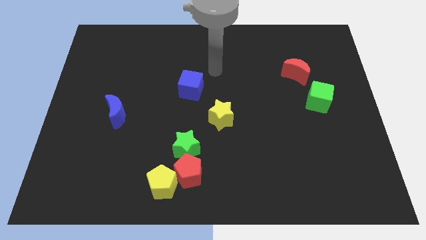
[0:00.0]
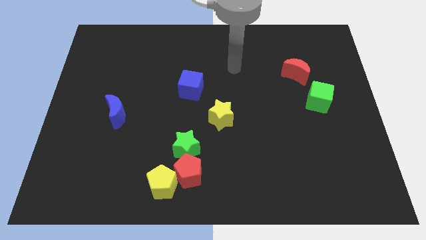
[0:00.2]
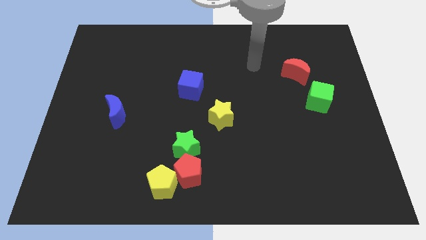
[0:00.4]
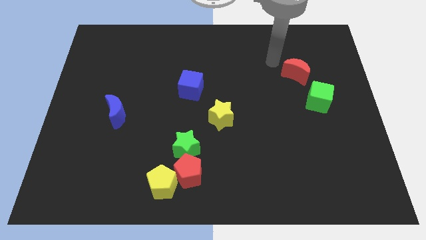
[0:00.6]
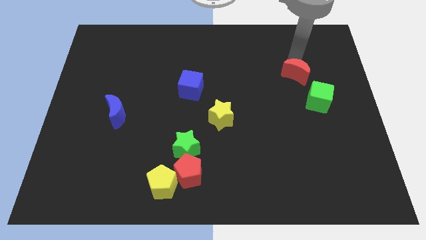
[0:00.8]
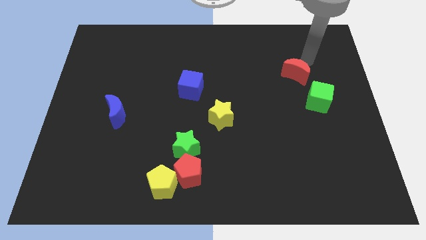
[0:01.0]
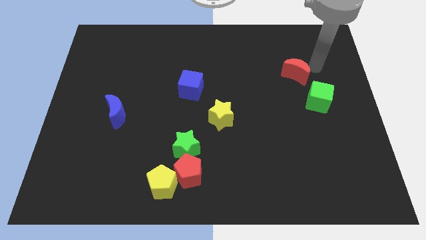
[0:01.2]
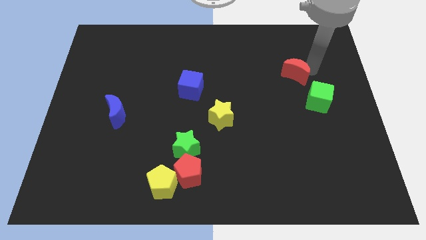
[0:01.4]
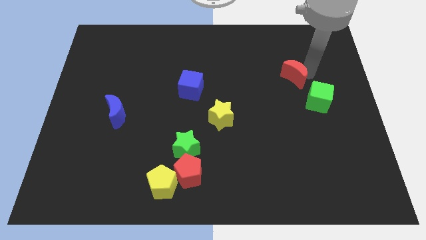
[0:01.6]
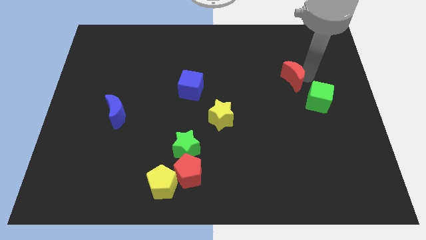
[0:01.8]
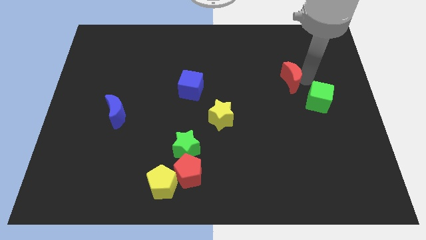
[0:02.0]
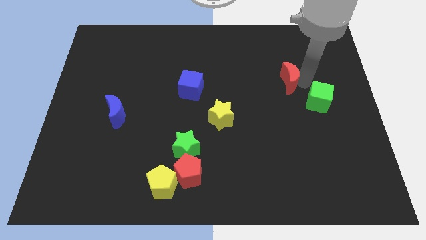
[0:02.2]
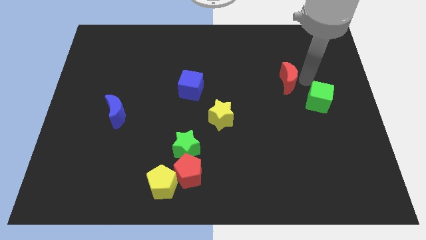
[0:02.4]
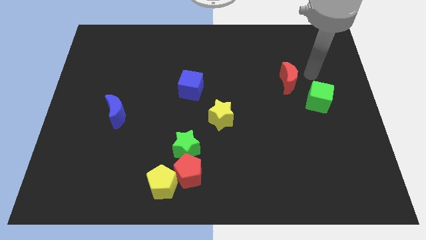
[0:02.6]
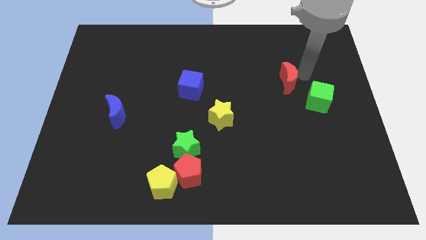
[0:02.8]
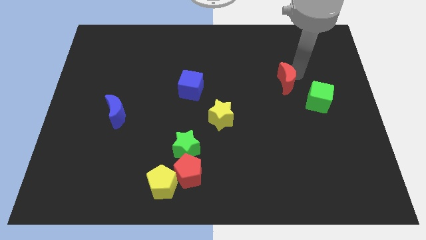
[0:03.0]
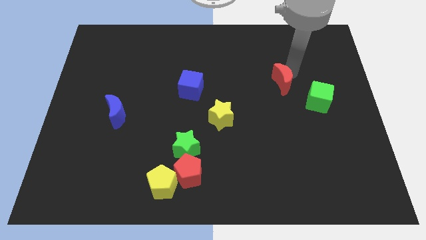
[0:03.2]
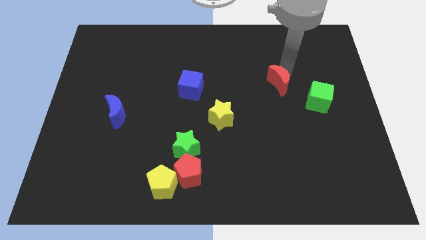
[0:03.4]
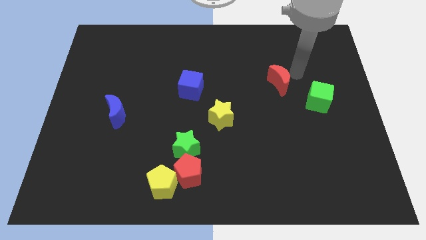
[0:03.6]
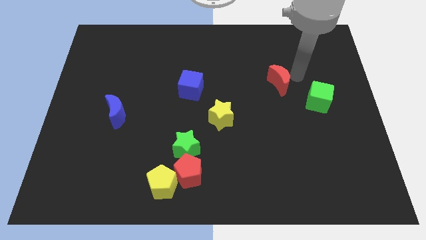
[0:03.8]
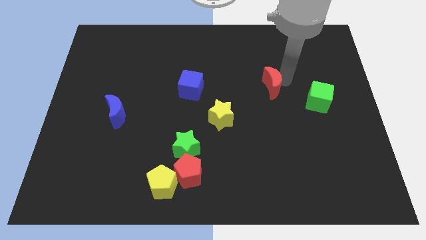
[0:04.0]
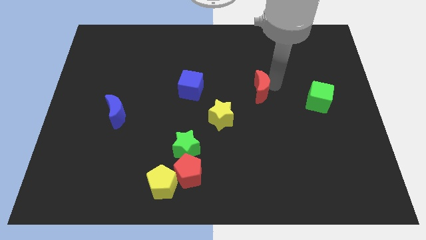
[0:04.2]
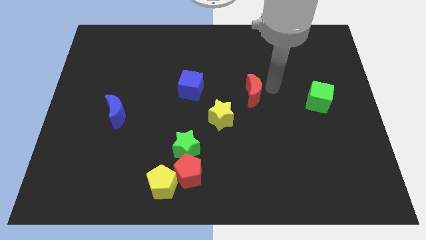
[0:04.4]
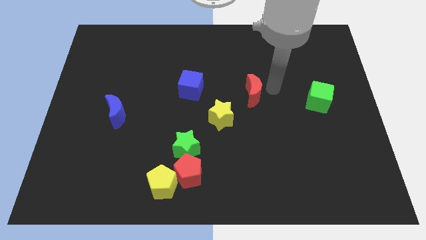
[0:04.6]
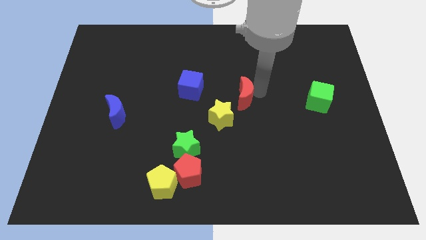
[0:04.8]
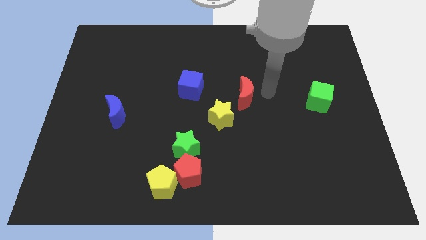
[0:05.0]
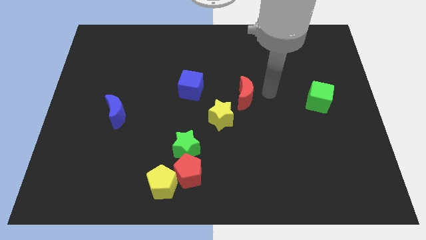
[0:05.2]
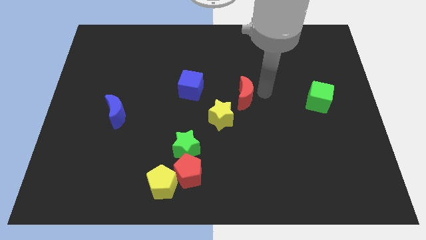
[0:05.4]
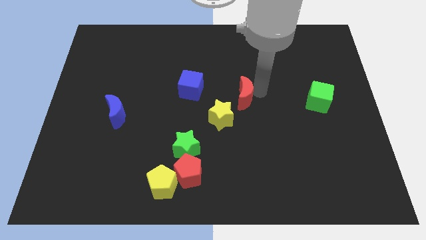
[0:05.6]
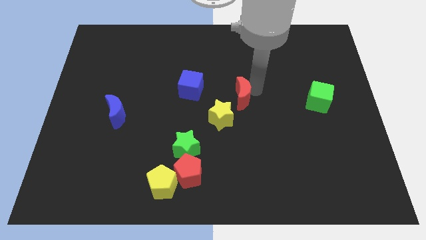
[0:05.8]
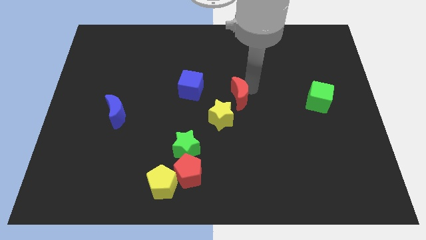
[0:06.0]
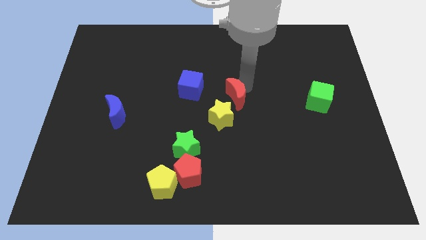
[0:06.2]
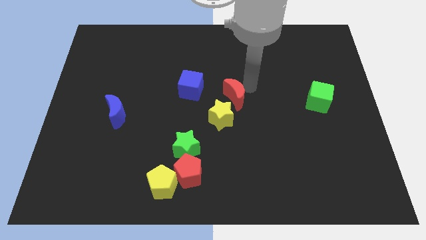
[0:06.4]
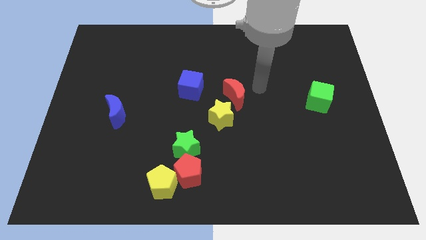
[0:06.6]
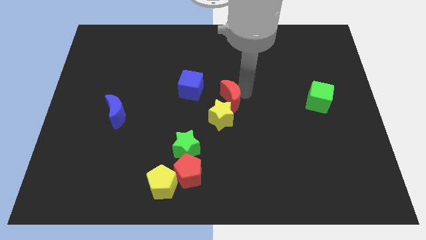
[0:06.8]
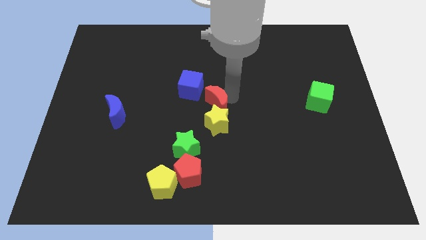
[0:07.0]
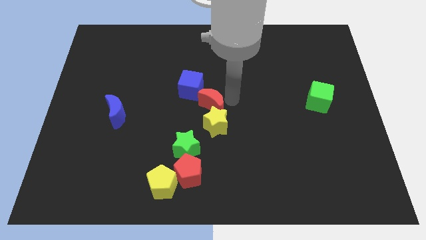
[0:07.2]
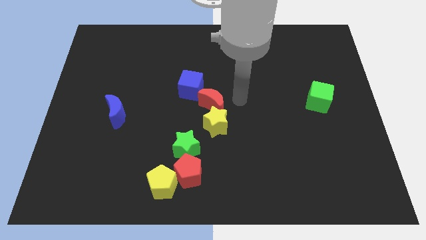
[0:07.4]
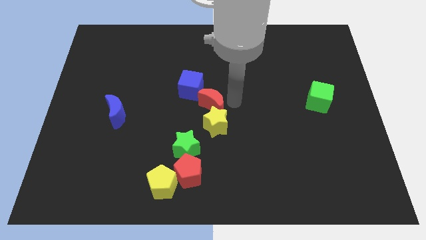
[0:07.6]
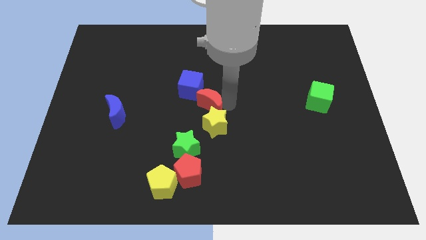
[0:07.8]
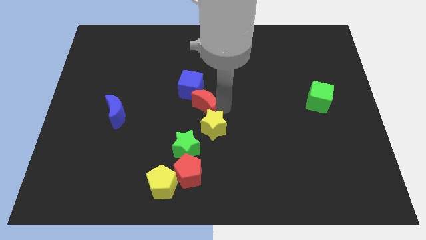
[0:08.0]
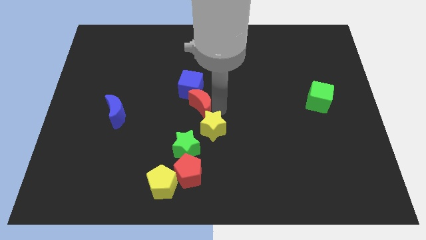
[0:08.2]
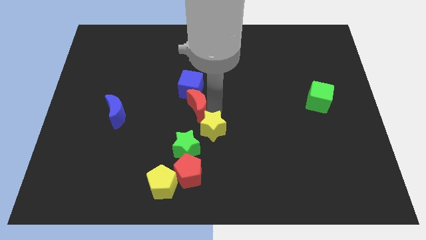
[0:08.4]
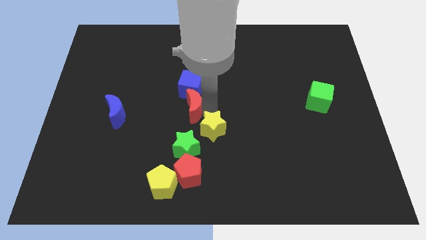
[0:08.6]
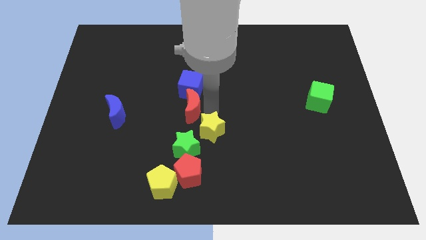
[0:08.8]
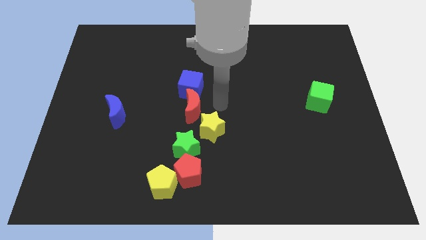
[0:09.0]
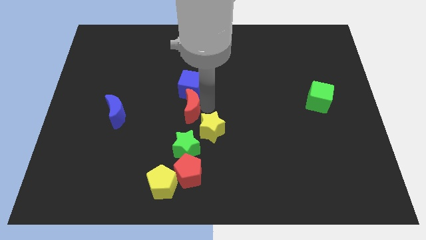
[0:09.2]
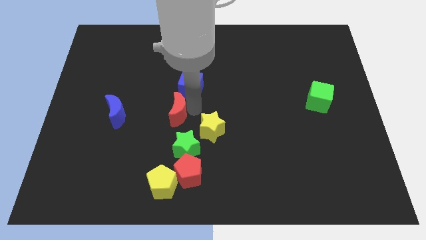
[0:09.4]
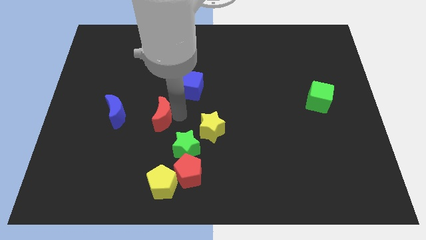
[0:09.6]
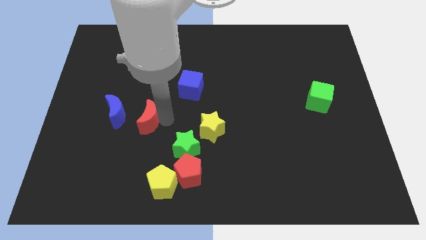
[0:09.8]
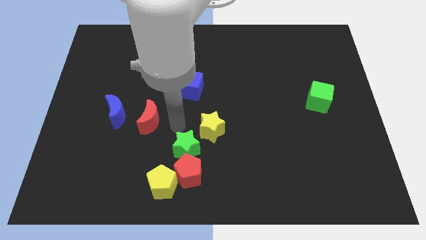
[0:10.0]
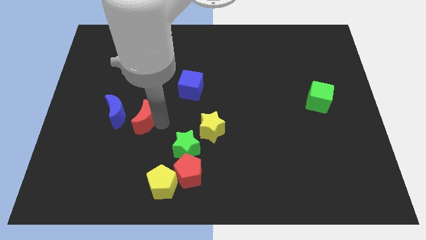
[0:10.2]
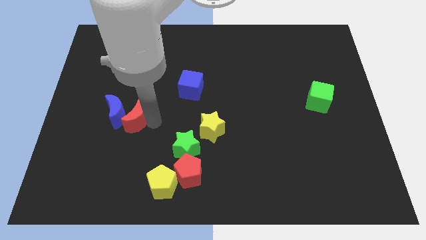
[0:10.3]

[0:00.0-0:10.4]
push the red moon to the blue moon

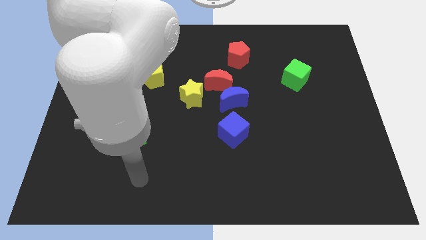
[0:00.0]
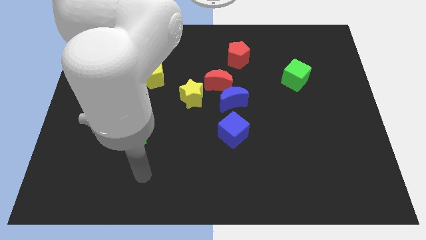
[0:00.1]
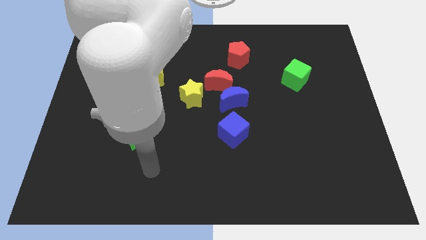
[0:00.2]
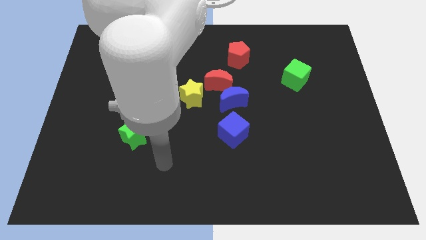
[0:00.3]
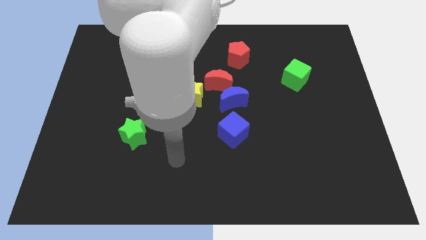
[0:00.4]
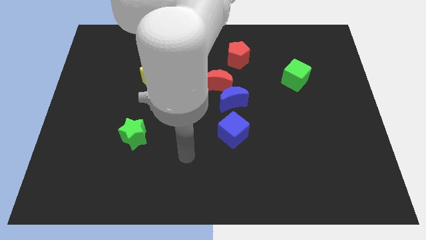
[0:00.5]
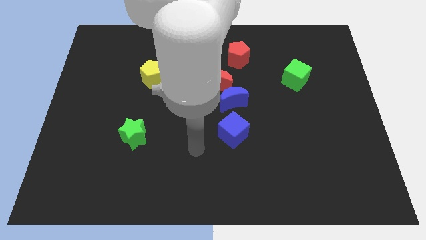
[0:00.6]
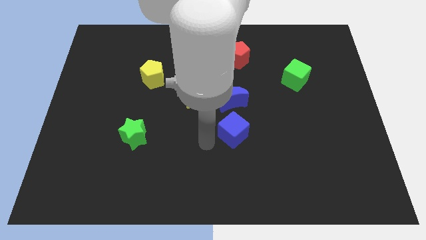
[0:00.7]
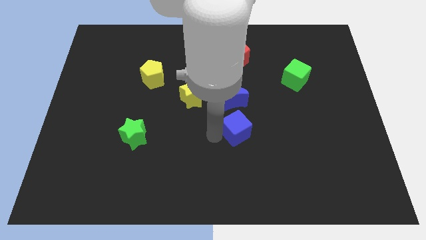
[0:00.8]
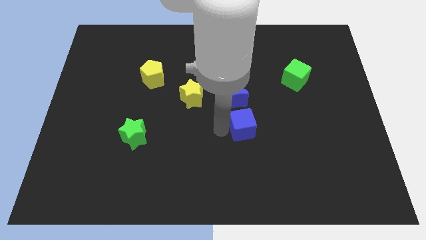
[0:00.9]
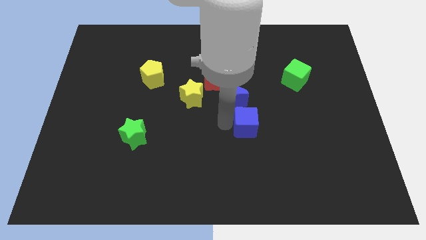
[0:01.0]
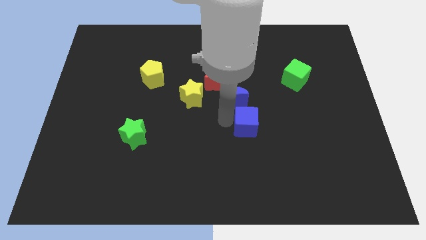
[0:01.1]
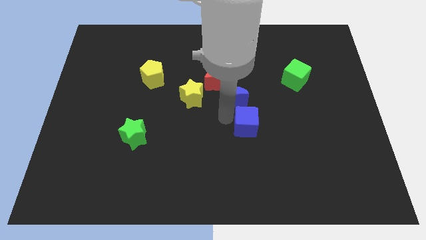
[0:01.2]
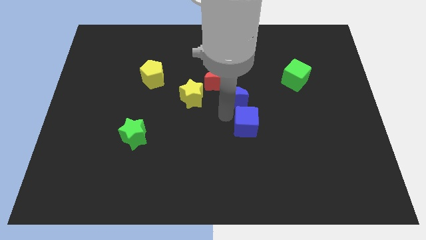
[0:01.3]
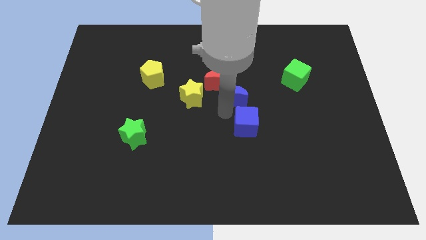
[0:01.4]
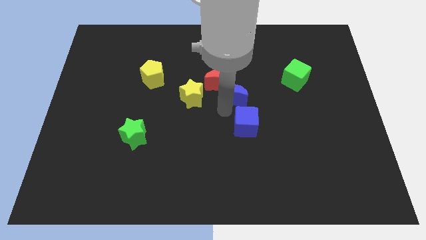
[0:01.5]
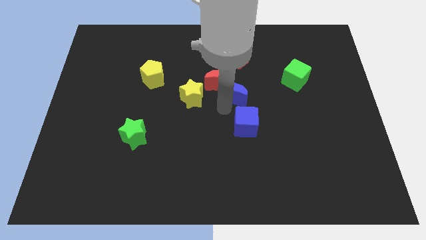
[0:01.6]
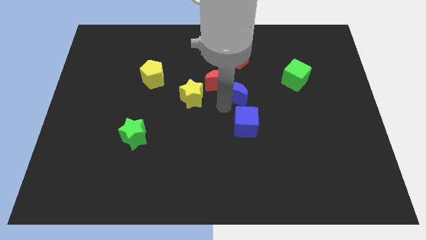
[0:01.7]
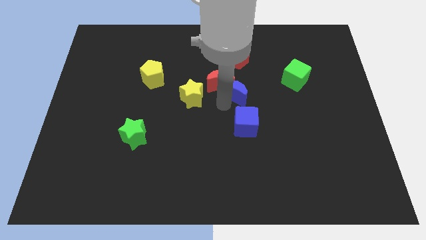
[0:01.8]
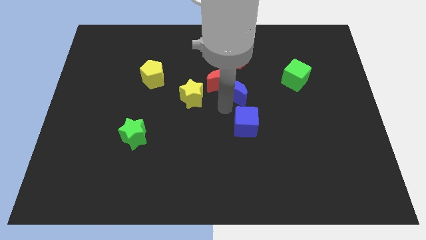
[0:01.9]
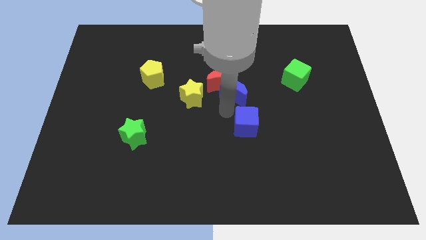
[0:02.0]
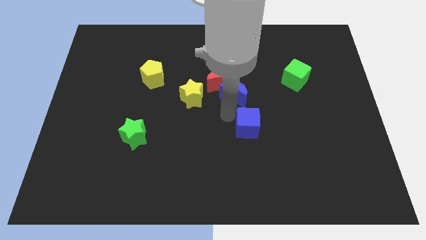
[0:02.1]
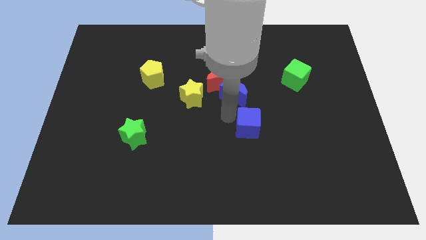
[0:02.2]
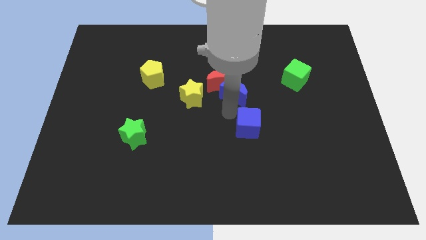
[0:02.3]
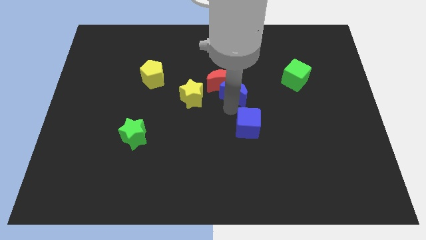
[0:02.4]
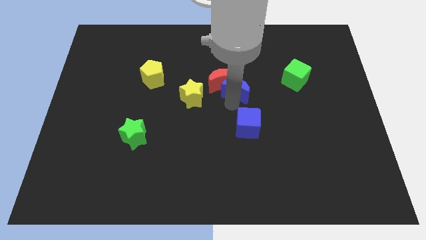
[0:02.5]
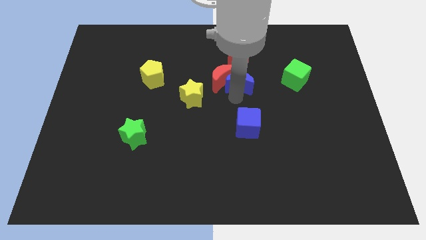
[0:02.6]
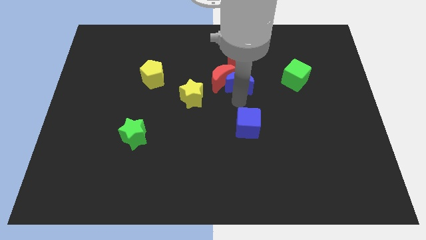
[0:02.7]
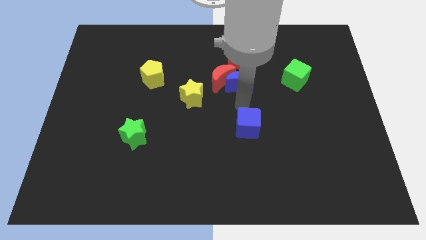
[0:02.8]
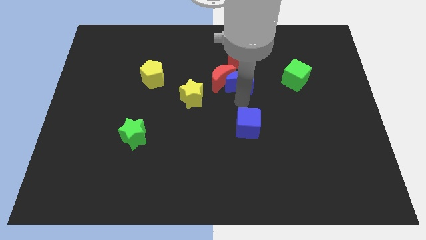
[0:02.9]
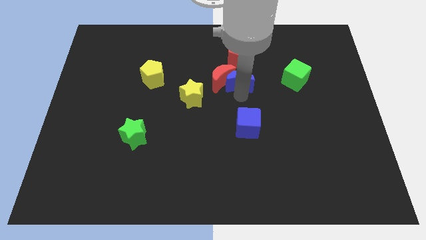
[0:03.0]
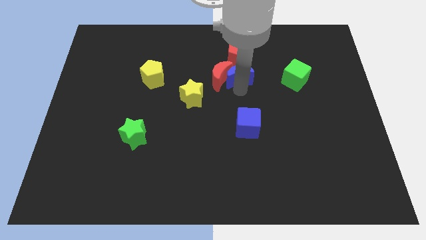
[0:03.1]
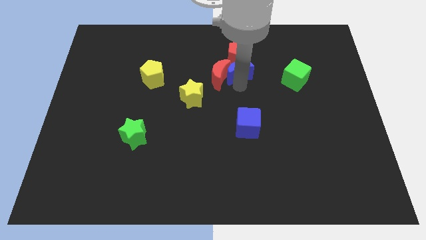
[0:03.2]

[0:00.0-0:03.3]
move the blue moon next to the red pentagon
